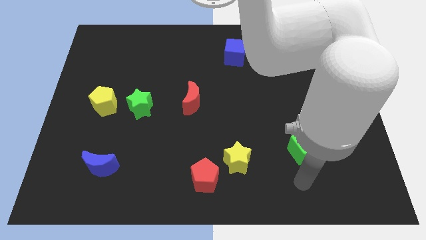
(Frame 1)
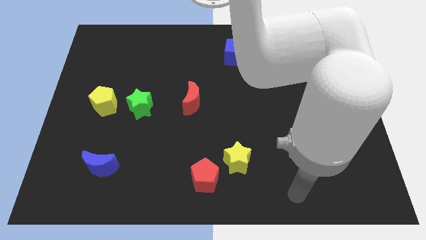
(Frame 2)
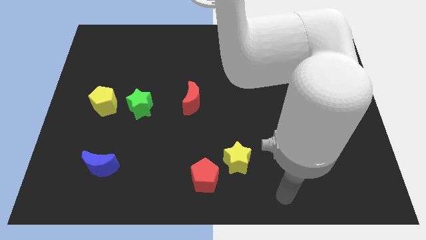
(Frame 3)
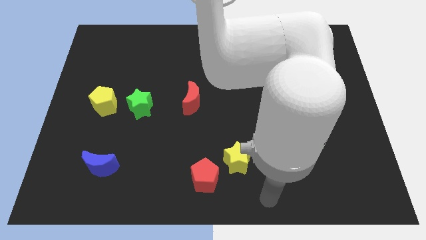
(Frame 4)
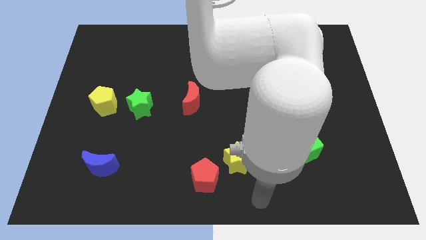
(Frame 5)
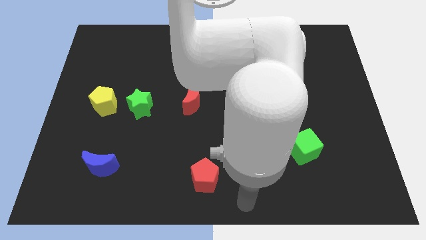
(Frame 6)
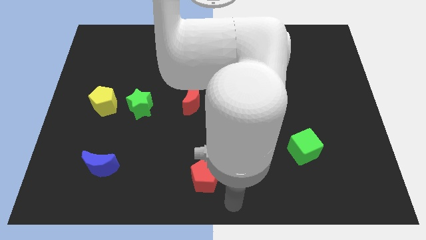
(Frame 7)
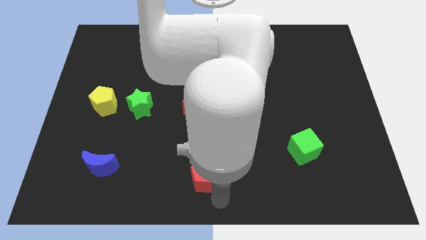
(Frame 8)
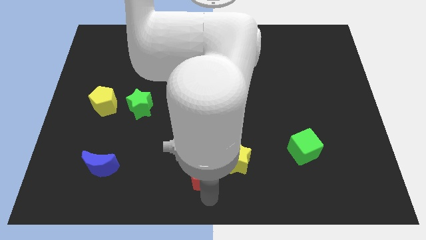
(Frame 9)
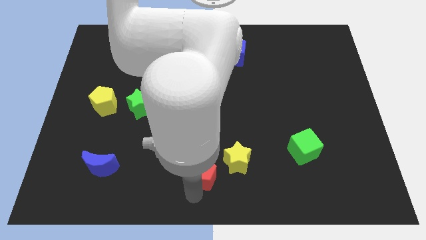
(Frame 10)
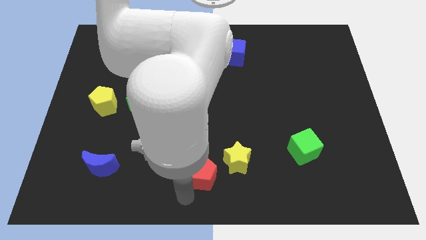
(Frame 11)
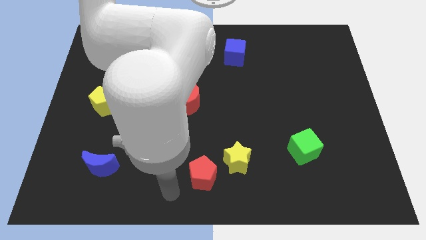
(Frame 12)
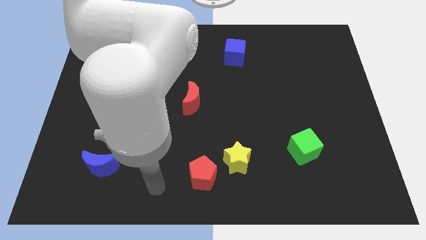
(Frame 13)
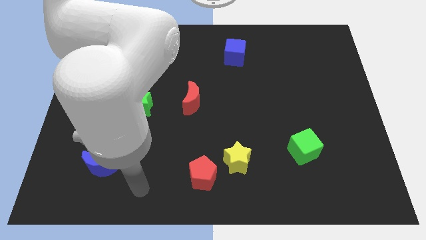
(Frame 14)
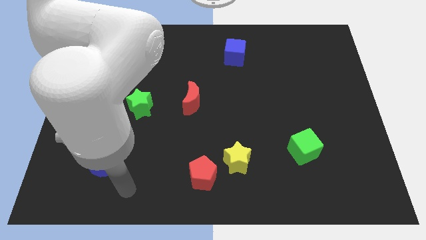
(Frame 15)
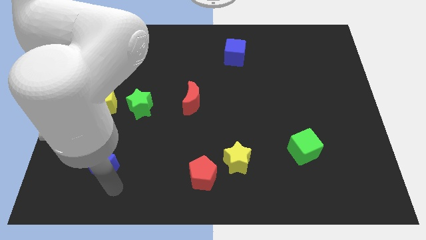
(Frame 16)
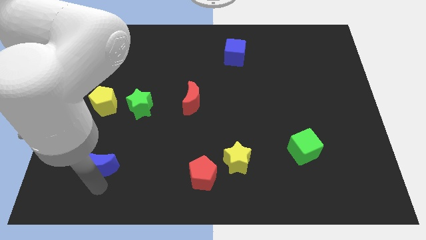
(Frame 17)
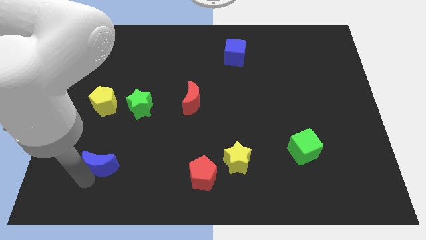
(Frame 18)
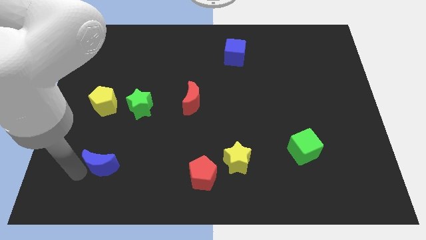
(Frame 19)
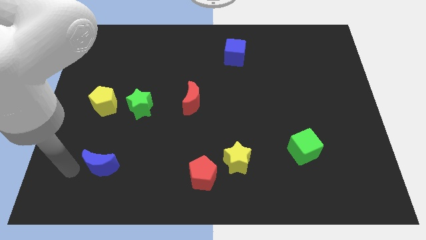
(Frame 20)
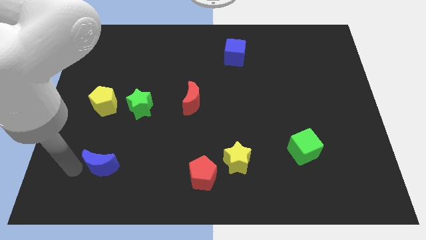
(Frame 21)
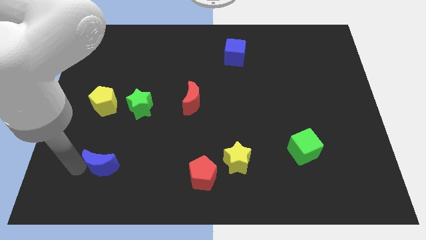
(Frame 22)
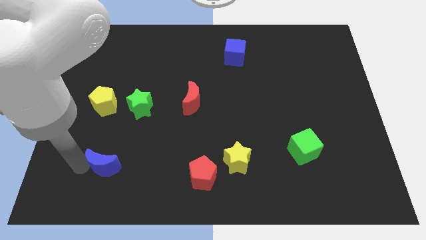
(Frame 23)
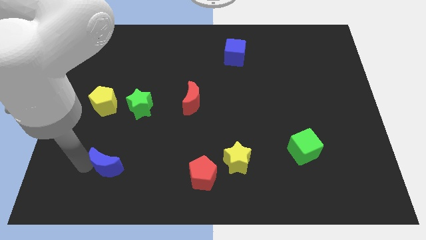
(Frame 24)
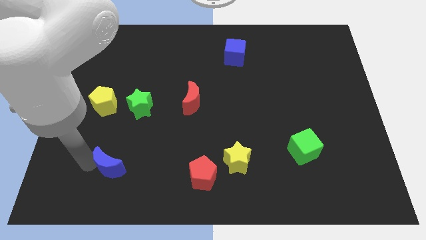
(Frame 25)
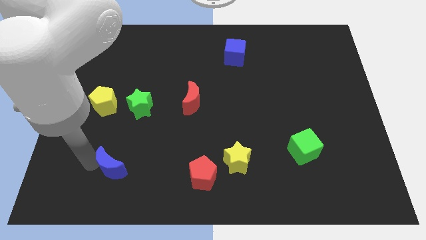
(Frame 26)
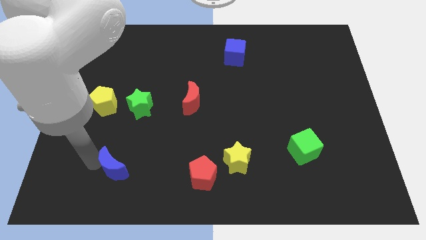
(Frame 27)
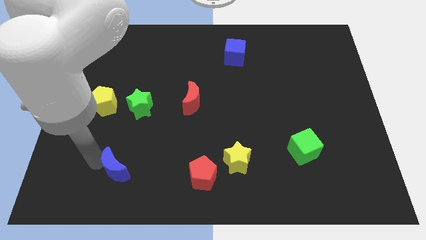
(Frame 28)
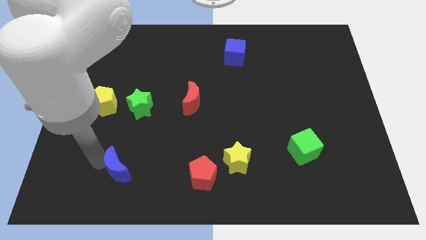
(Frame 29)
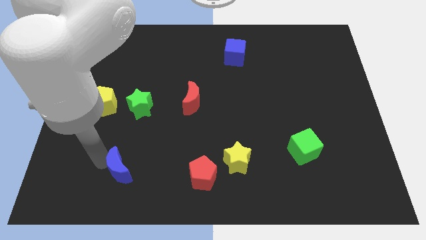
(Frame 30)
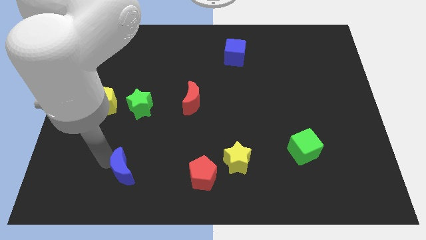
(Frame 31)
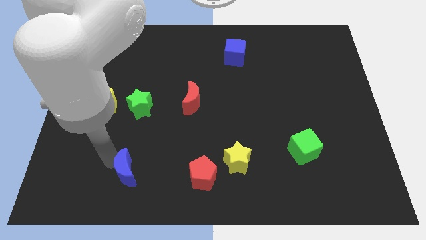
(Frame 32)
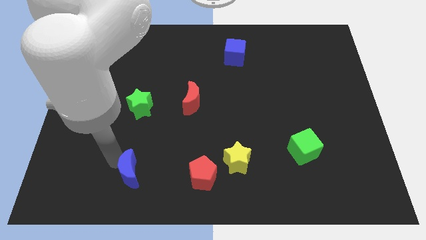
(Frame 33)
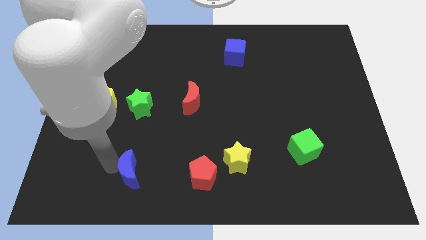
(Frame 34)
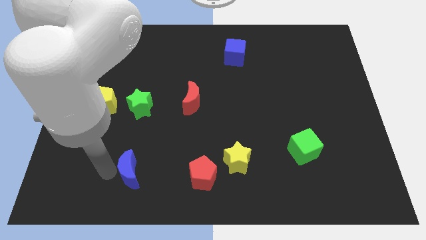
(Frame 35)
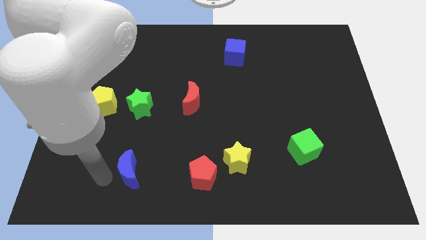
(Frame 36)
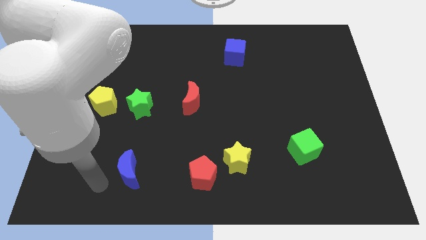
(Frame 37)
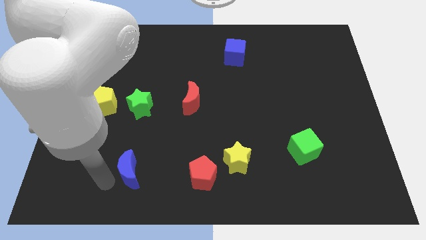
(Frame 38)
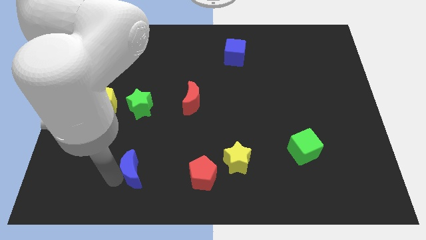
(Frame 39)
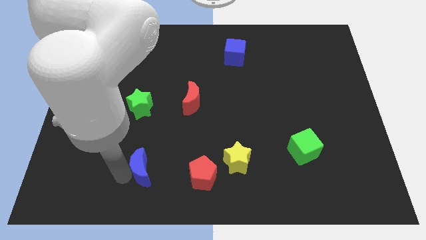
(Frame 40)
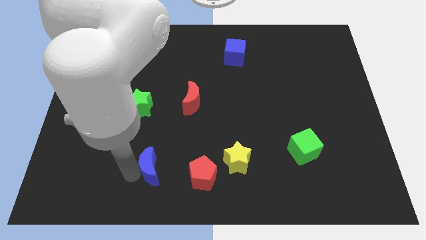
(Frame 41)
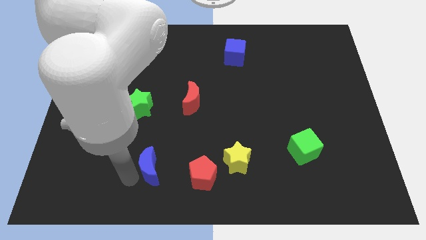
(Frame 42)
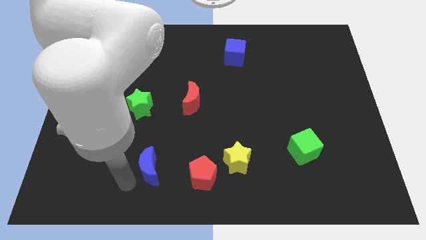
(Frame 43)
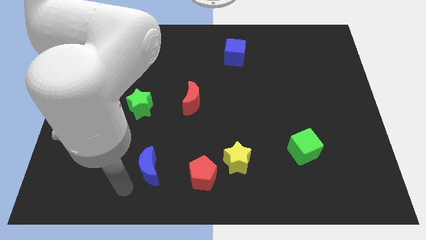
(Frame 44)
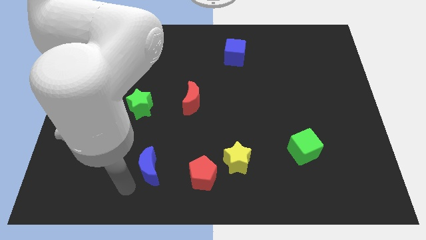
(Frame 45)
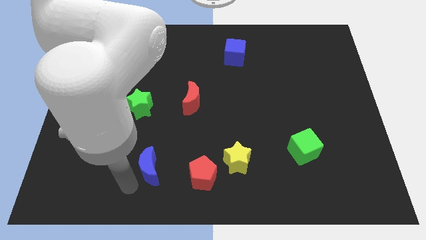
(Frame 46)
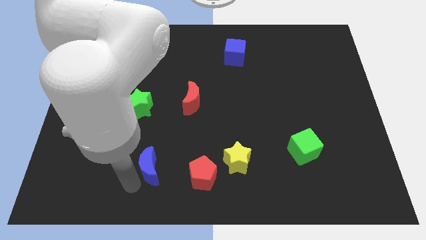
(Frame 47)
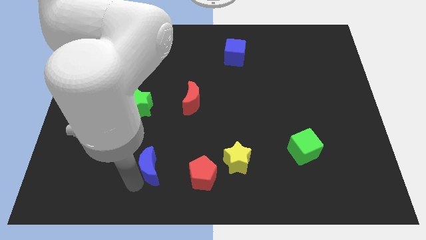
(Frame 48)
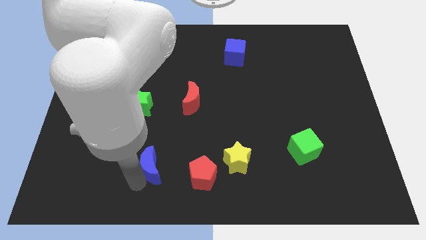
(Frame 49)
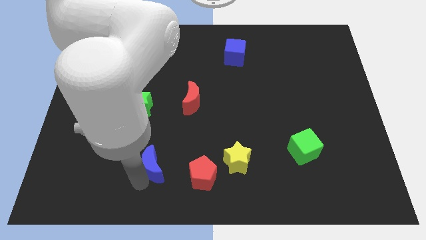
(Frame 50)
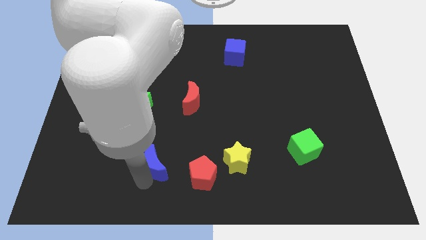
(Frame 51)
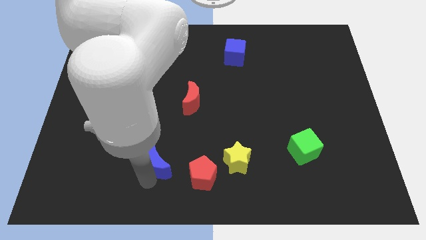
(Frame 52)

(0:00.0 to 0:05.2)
move the blue moon to the top left side of the red pentagon

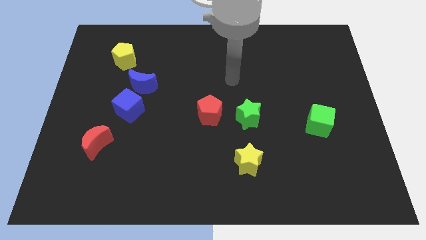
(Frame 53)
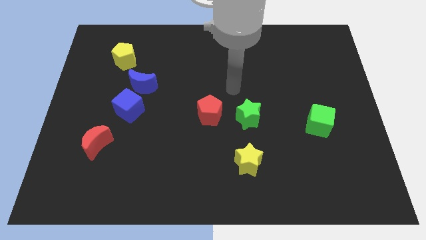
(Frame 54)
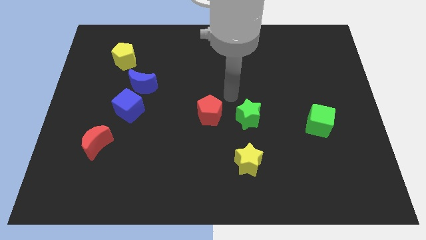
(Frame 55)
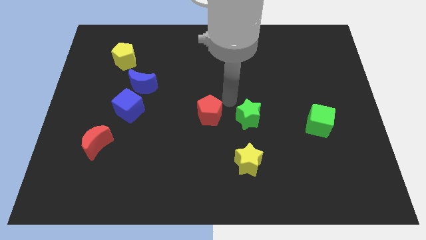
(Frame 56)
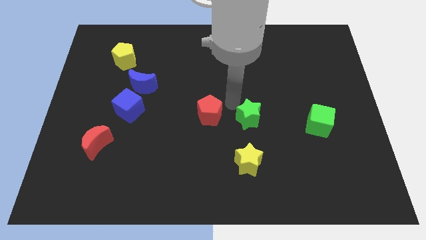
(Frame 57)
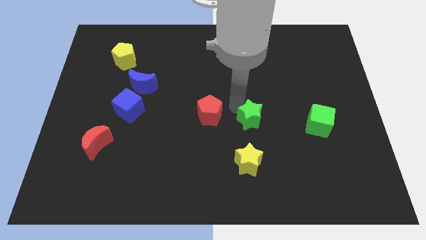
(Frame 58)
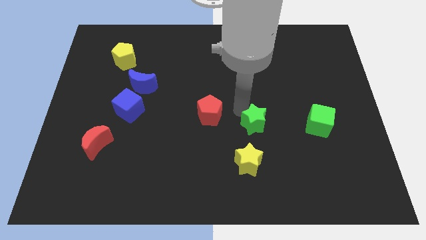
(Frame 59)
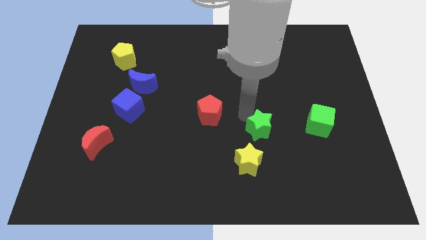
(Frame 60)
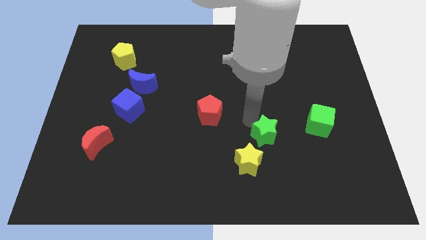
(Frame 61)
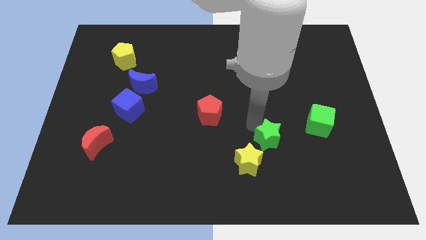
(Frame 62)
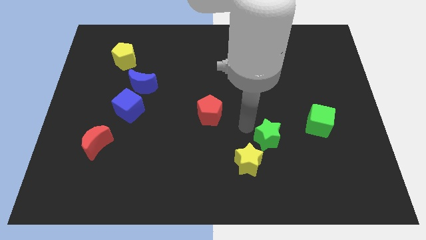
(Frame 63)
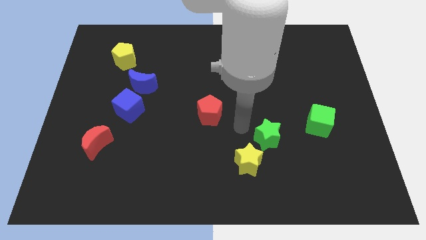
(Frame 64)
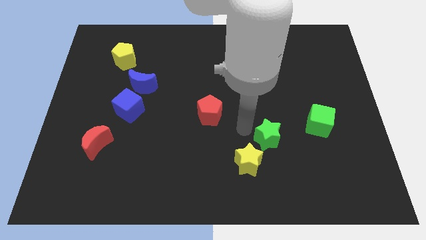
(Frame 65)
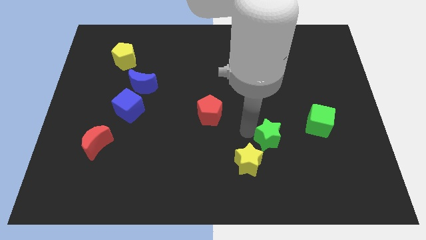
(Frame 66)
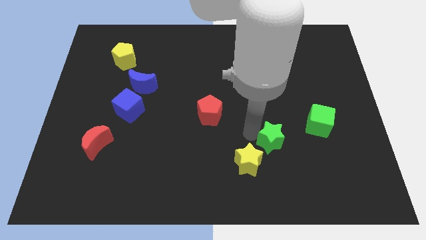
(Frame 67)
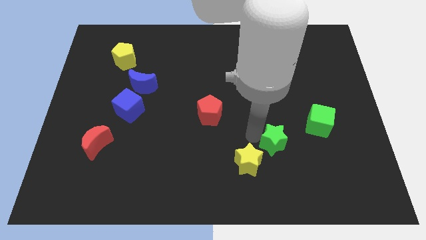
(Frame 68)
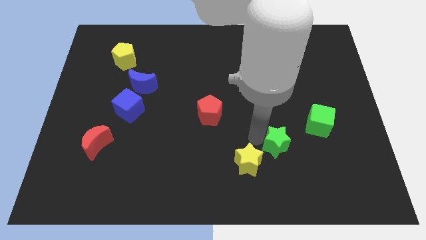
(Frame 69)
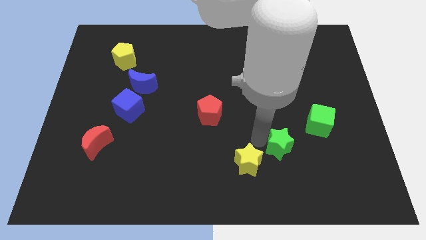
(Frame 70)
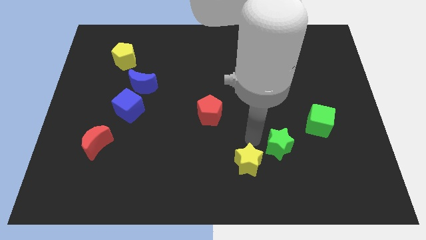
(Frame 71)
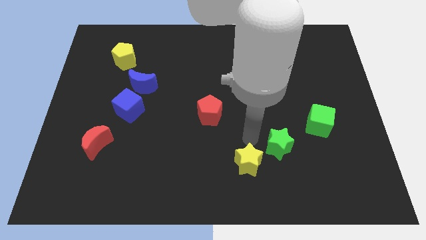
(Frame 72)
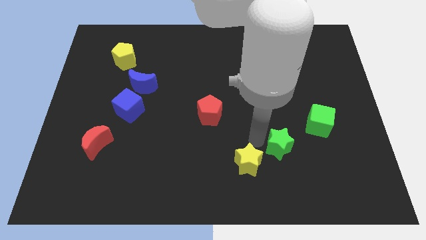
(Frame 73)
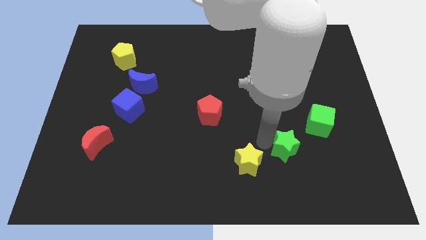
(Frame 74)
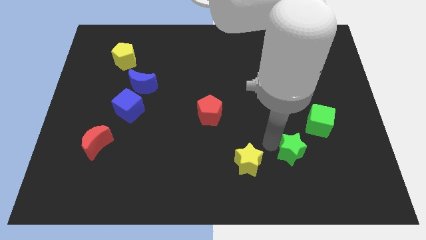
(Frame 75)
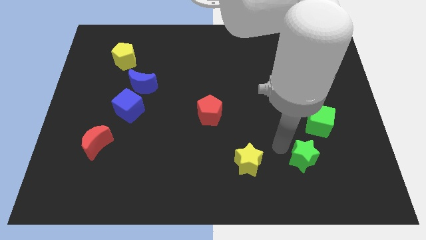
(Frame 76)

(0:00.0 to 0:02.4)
slide the green star below the green cube

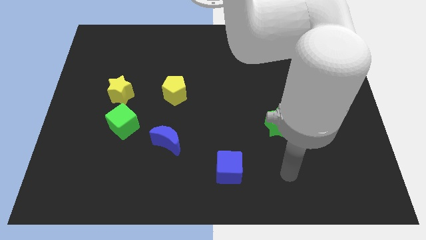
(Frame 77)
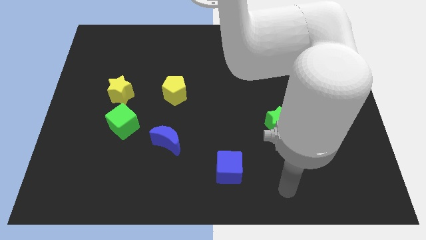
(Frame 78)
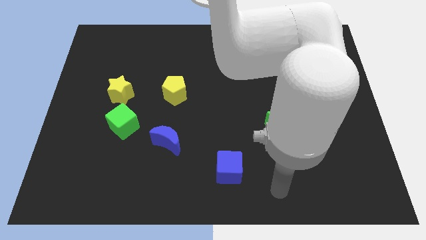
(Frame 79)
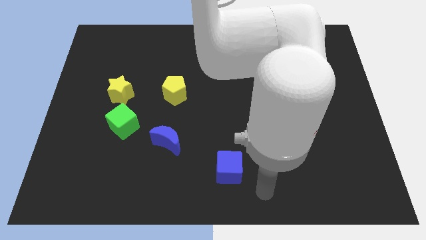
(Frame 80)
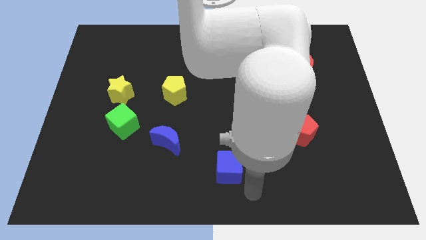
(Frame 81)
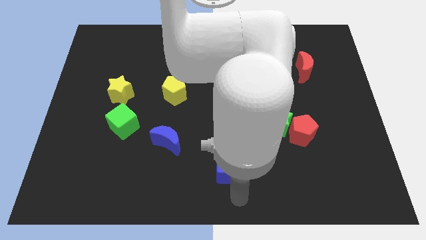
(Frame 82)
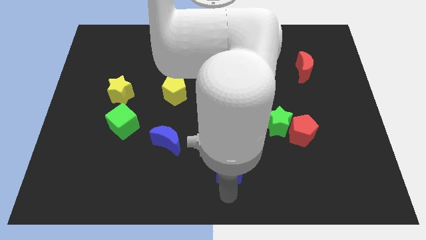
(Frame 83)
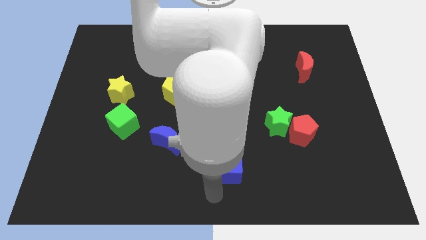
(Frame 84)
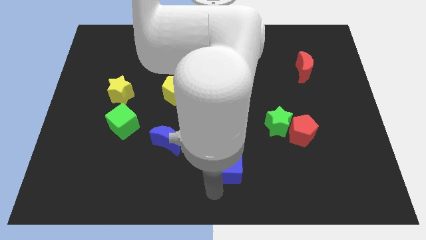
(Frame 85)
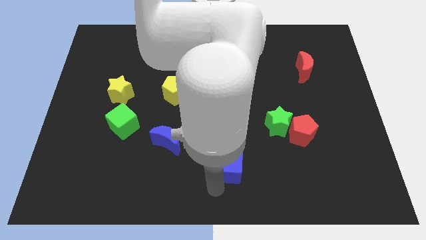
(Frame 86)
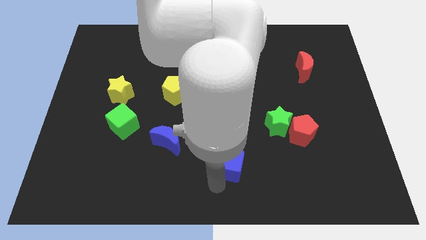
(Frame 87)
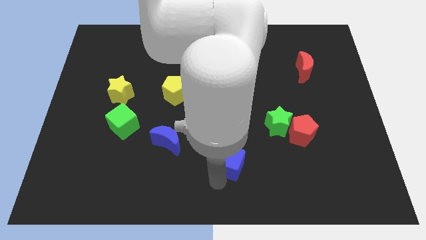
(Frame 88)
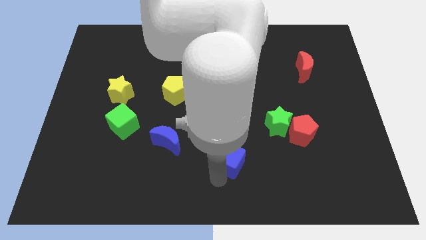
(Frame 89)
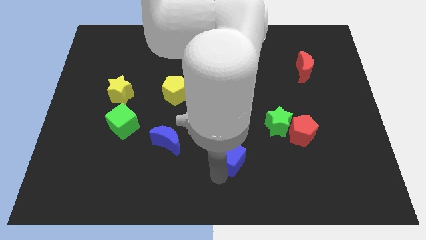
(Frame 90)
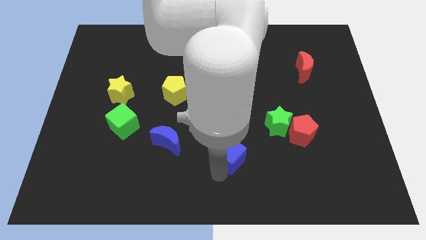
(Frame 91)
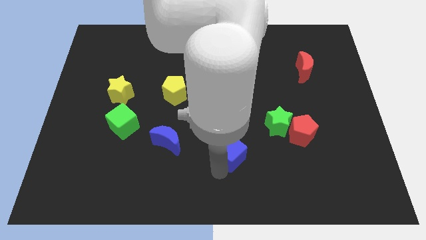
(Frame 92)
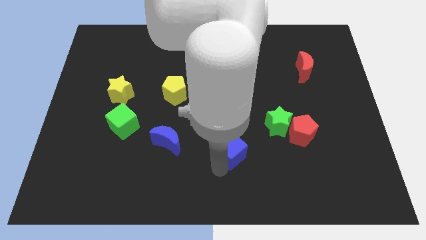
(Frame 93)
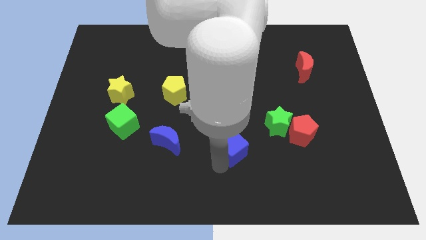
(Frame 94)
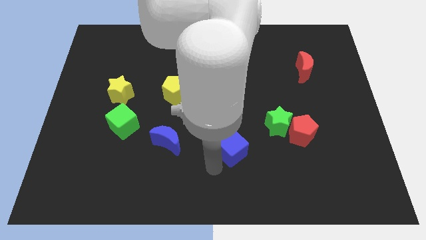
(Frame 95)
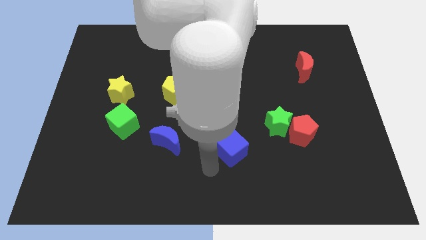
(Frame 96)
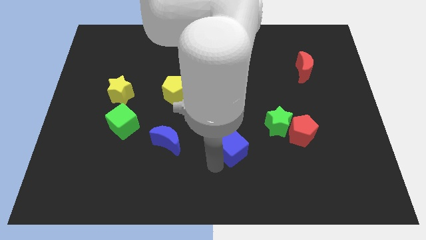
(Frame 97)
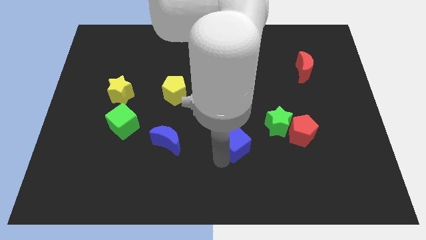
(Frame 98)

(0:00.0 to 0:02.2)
move the blue cube left of the red pentagon
